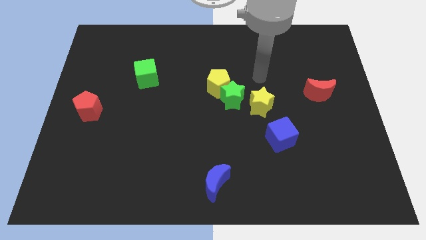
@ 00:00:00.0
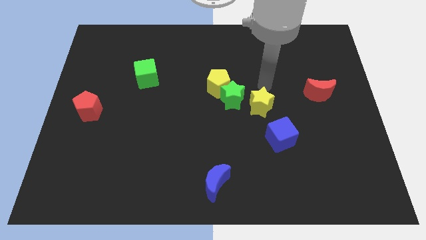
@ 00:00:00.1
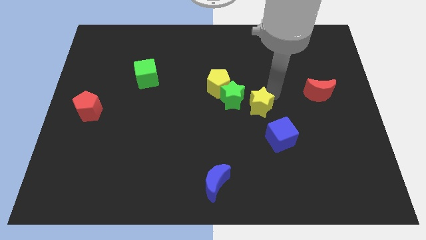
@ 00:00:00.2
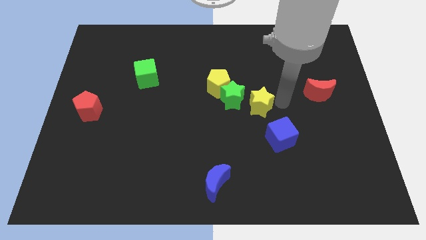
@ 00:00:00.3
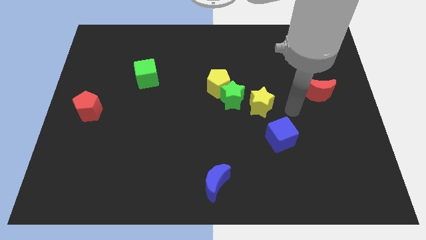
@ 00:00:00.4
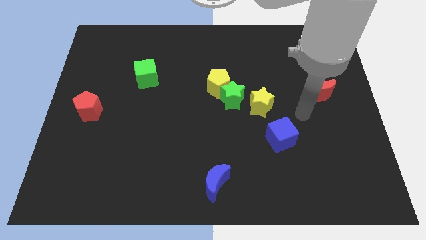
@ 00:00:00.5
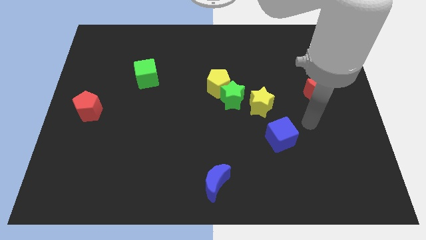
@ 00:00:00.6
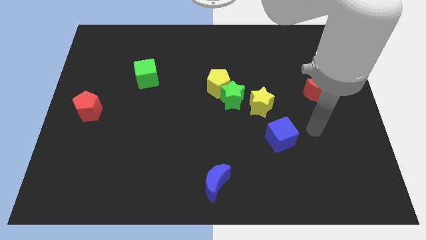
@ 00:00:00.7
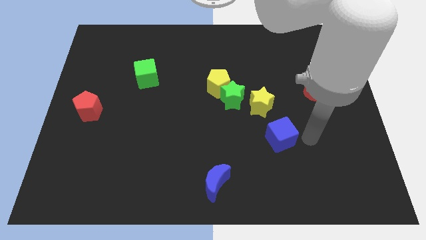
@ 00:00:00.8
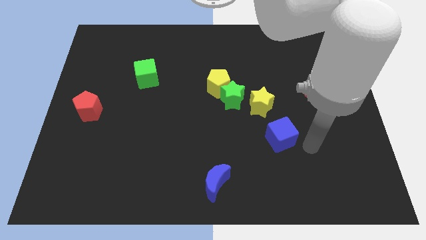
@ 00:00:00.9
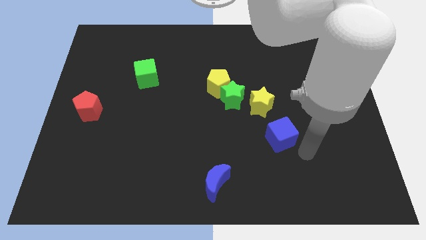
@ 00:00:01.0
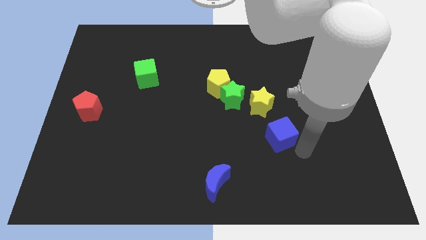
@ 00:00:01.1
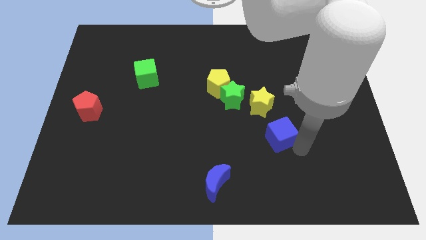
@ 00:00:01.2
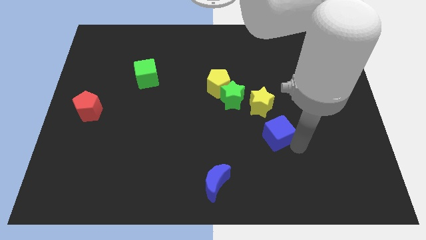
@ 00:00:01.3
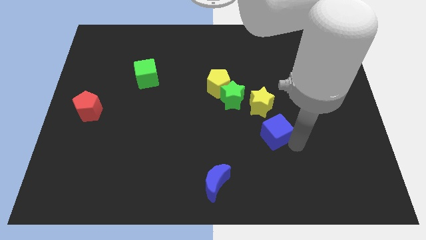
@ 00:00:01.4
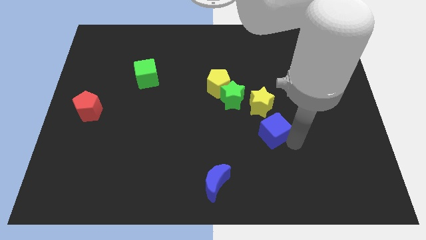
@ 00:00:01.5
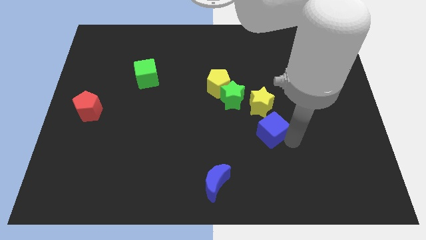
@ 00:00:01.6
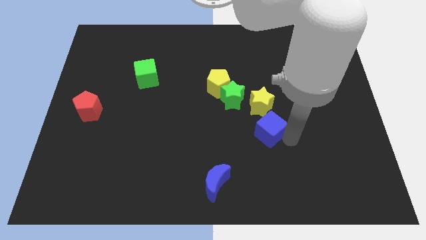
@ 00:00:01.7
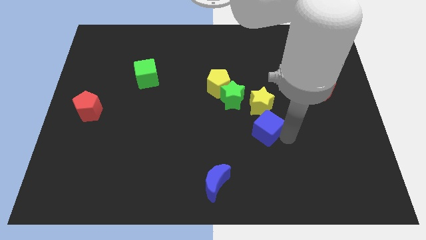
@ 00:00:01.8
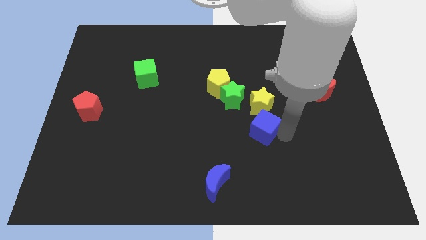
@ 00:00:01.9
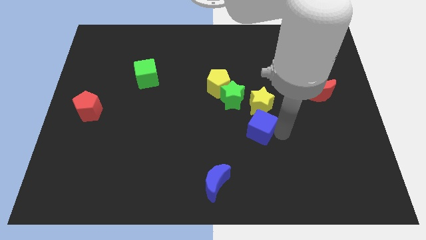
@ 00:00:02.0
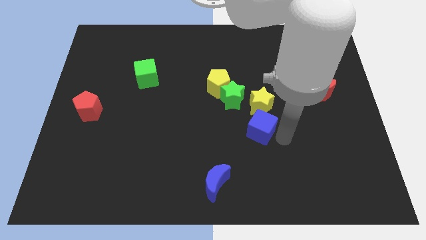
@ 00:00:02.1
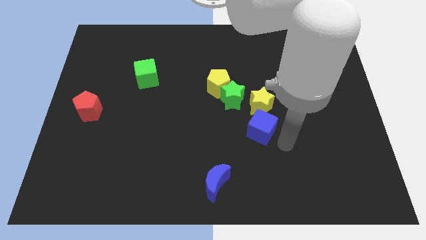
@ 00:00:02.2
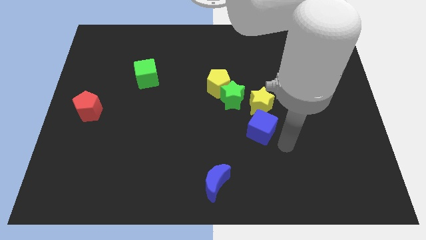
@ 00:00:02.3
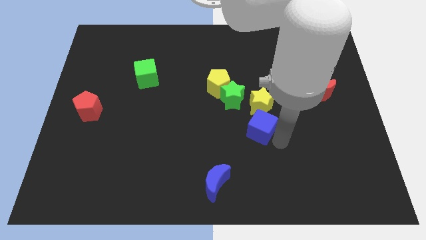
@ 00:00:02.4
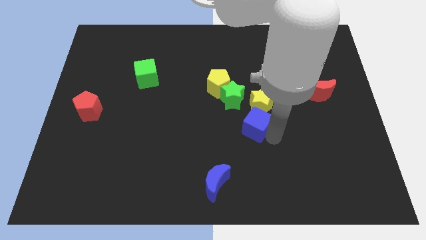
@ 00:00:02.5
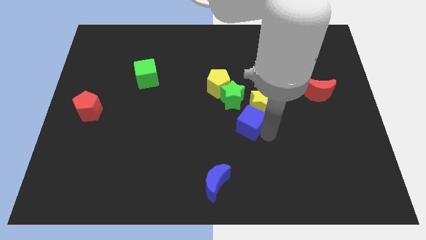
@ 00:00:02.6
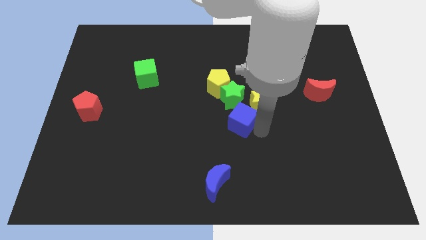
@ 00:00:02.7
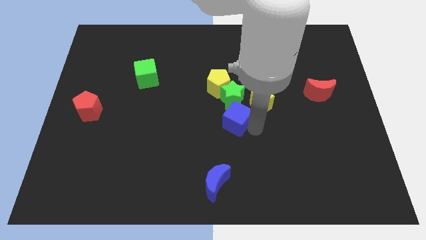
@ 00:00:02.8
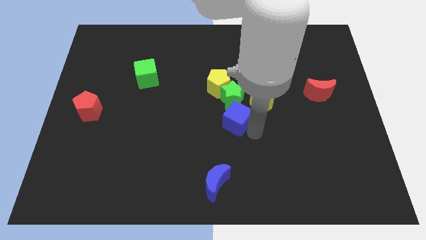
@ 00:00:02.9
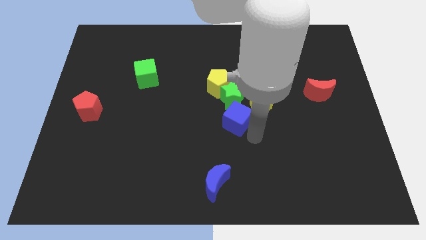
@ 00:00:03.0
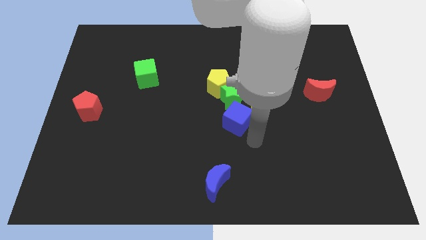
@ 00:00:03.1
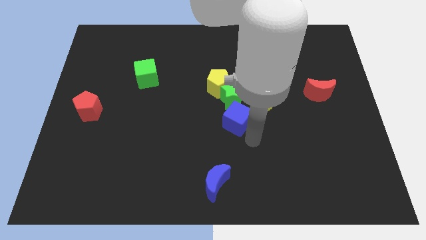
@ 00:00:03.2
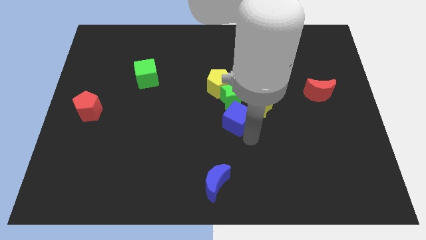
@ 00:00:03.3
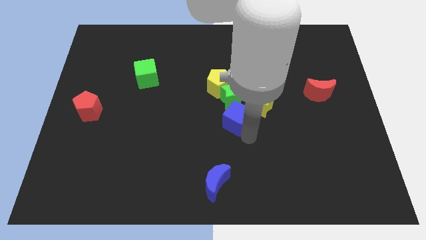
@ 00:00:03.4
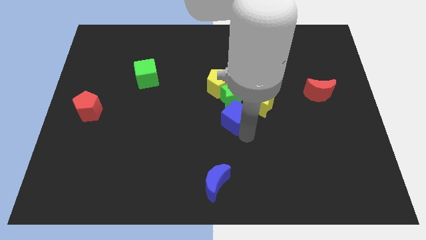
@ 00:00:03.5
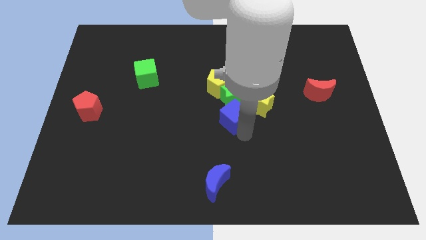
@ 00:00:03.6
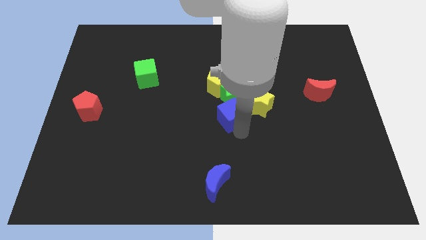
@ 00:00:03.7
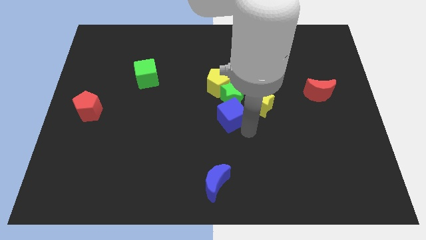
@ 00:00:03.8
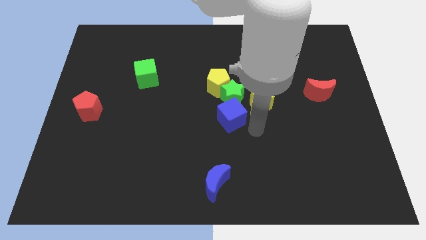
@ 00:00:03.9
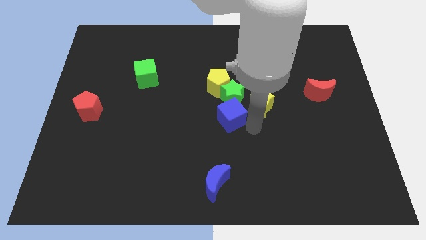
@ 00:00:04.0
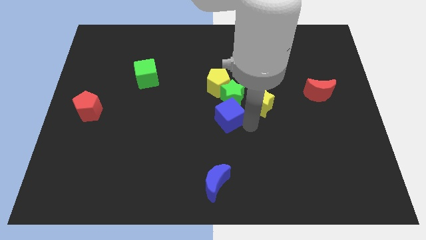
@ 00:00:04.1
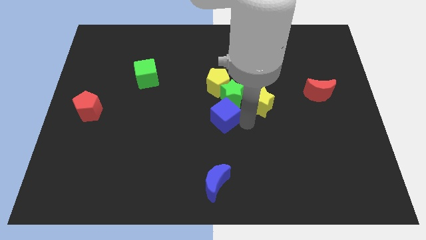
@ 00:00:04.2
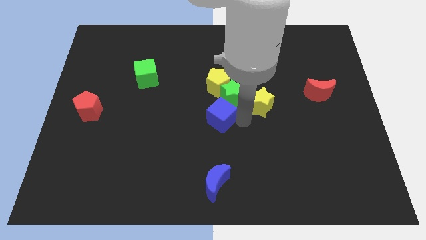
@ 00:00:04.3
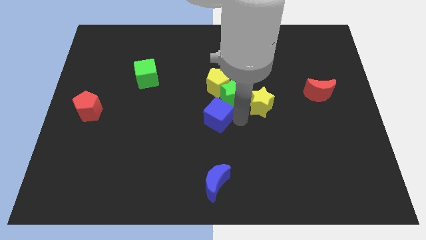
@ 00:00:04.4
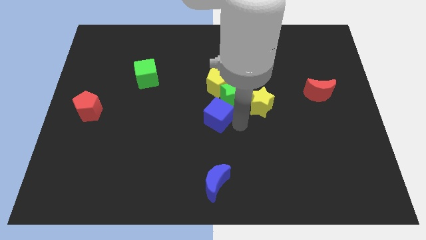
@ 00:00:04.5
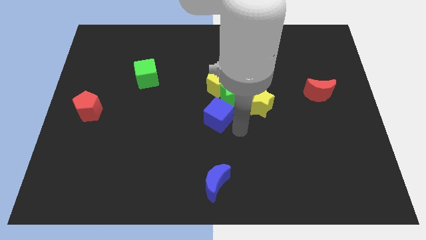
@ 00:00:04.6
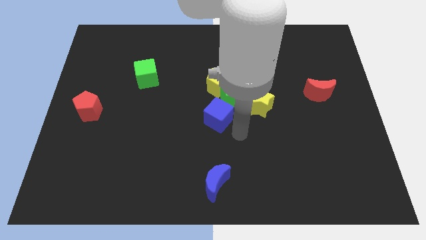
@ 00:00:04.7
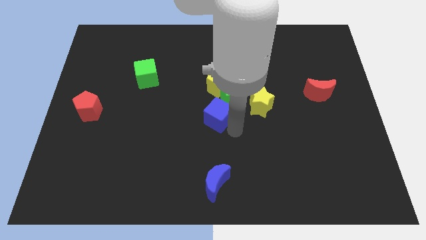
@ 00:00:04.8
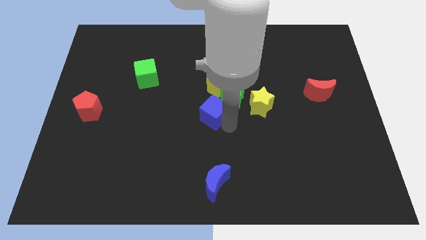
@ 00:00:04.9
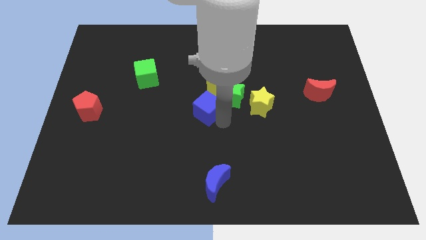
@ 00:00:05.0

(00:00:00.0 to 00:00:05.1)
put the blue cube diagonally down and to the left of the yellow pentagon

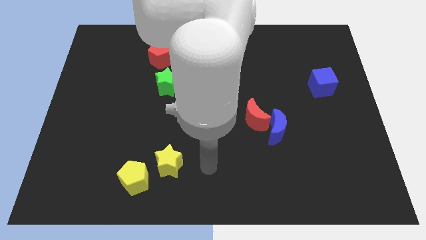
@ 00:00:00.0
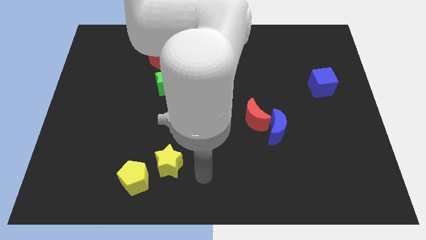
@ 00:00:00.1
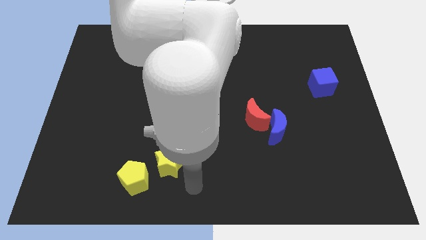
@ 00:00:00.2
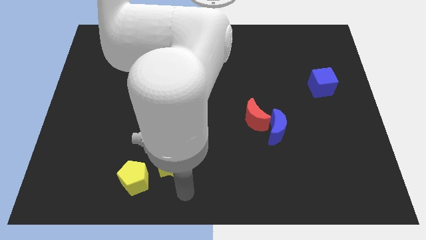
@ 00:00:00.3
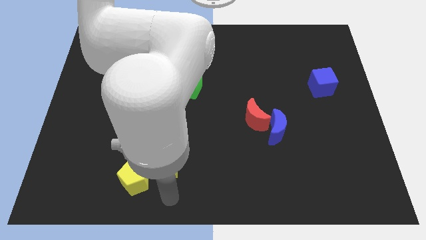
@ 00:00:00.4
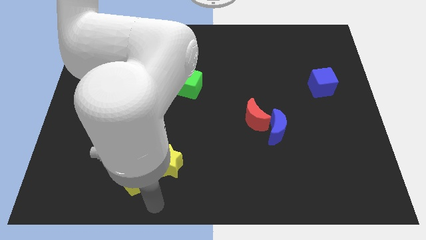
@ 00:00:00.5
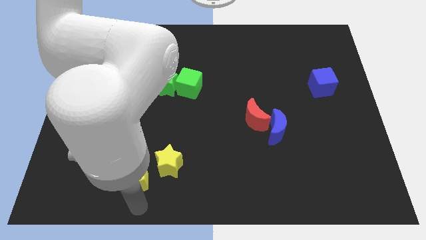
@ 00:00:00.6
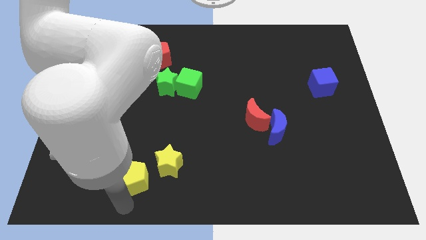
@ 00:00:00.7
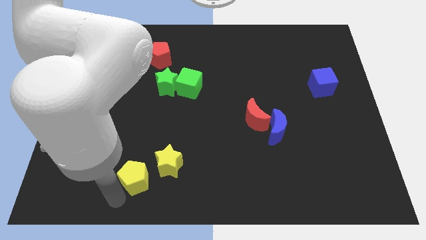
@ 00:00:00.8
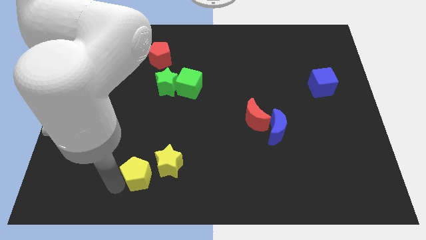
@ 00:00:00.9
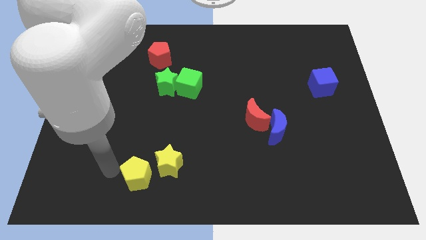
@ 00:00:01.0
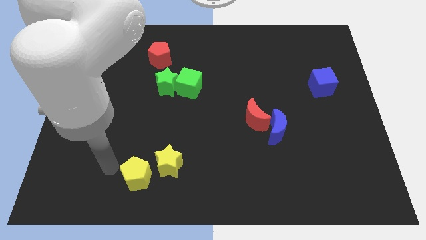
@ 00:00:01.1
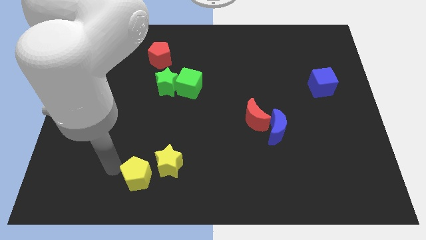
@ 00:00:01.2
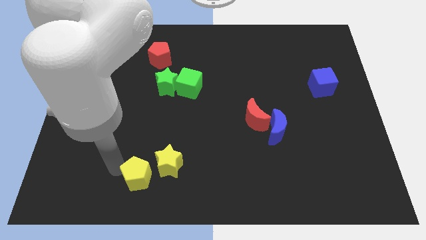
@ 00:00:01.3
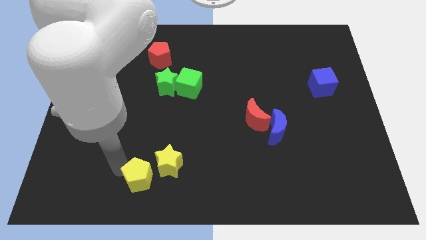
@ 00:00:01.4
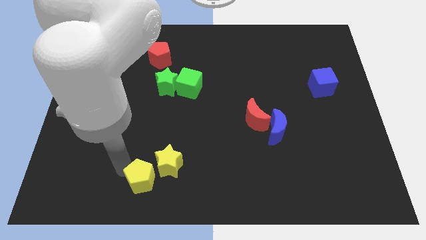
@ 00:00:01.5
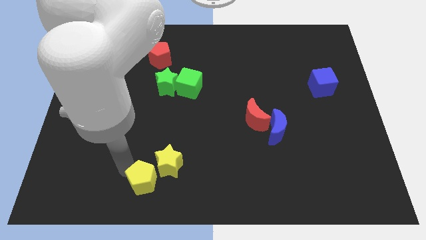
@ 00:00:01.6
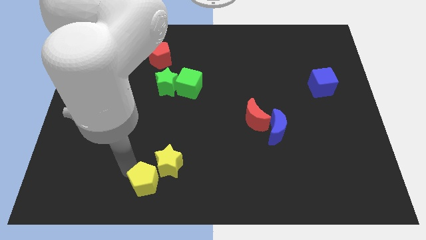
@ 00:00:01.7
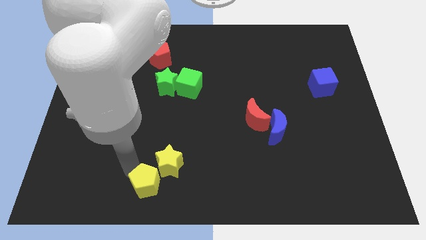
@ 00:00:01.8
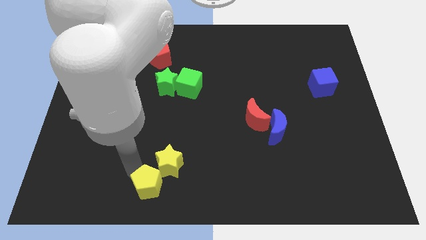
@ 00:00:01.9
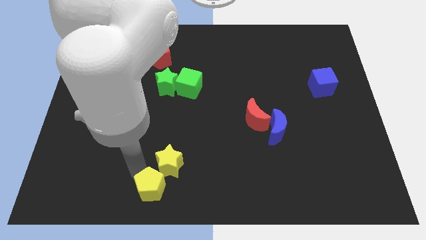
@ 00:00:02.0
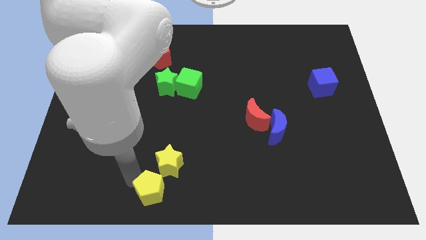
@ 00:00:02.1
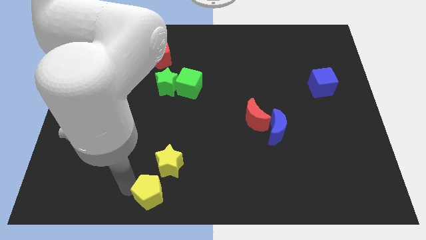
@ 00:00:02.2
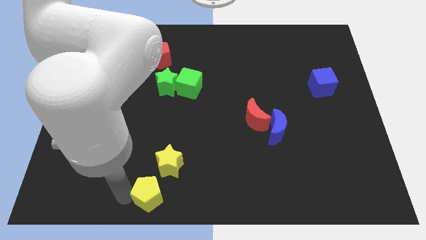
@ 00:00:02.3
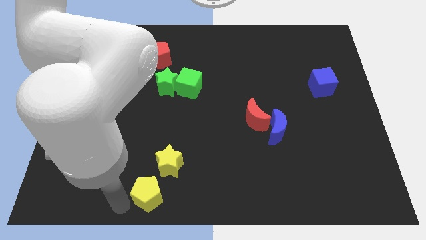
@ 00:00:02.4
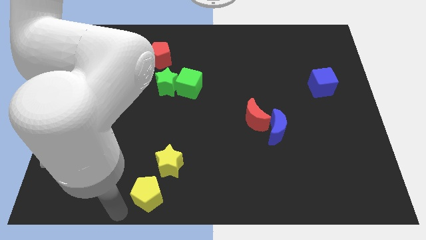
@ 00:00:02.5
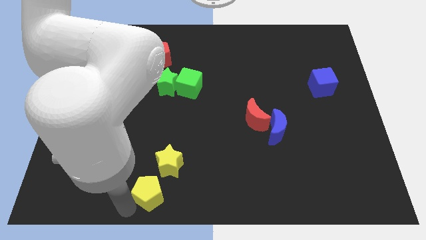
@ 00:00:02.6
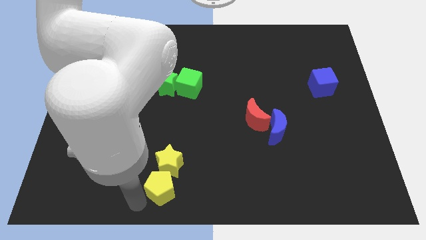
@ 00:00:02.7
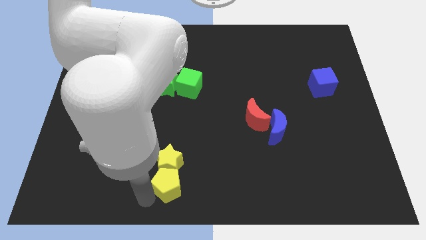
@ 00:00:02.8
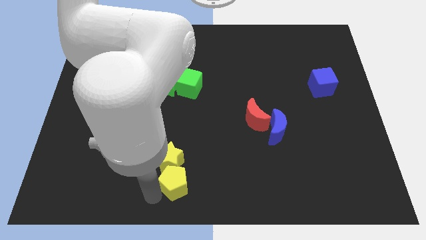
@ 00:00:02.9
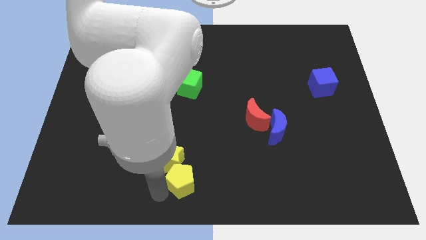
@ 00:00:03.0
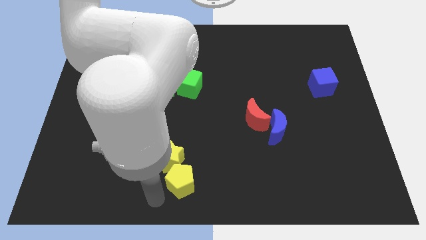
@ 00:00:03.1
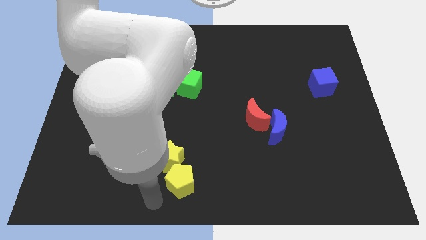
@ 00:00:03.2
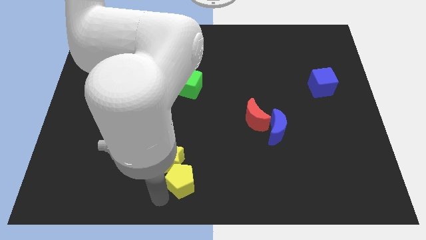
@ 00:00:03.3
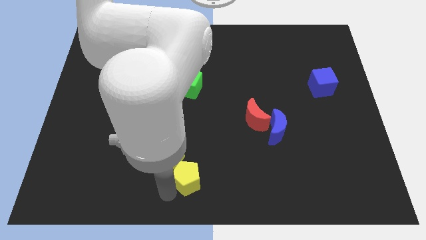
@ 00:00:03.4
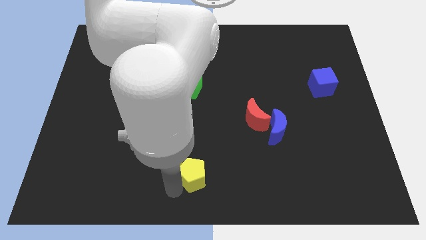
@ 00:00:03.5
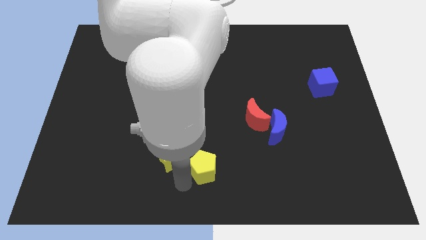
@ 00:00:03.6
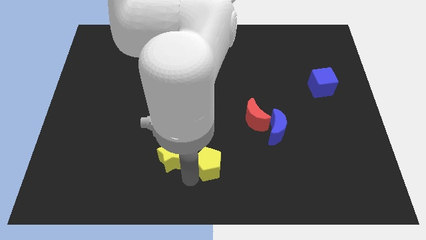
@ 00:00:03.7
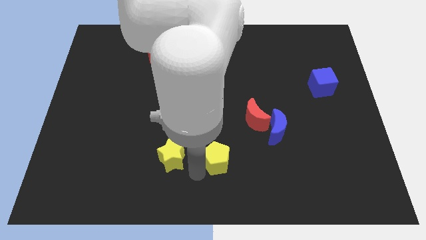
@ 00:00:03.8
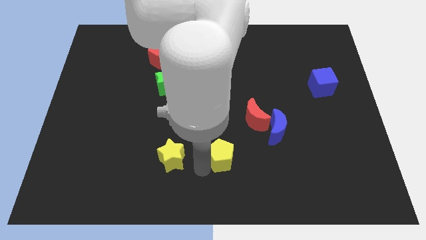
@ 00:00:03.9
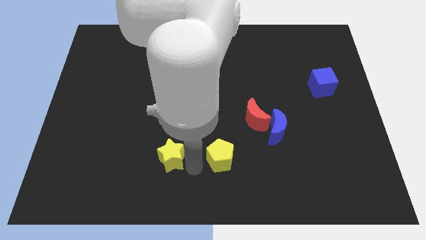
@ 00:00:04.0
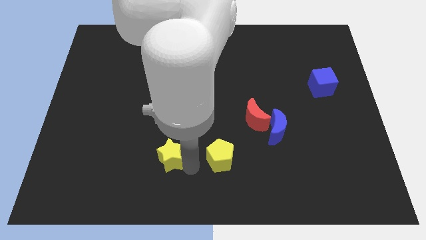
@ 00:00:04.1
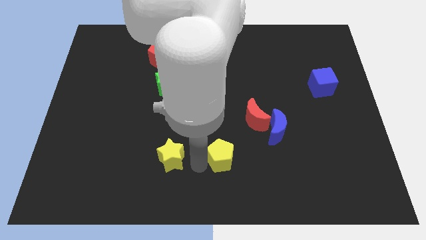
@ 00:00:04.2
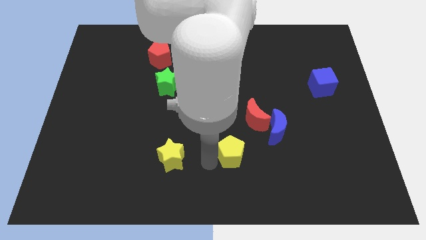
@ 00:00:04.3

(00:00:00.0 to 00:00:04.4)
put the yellow pentagon to the bottom left of the blue moon
